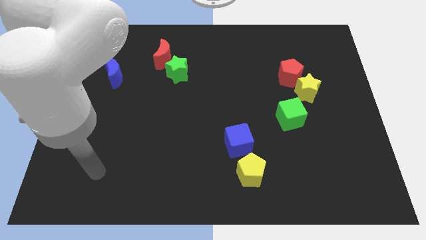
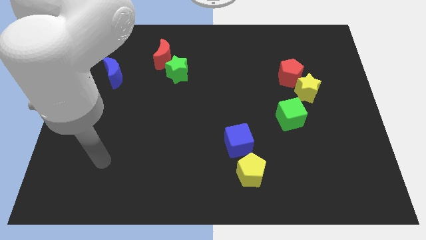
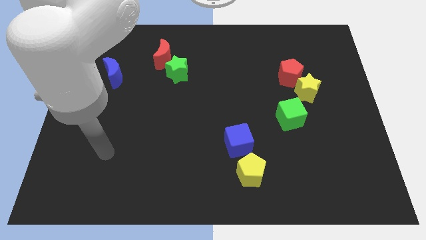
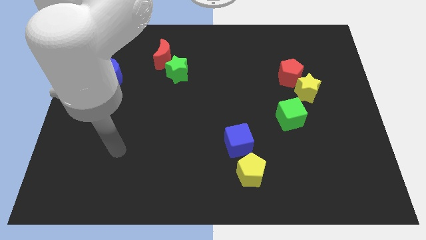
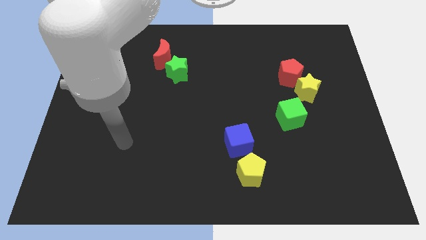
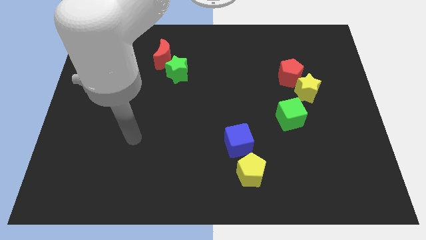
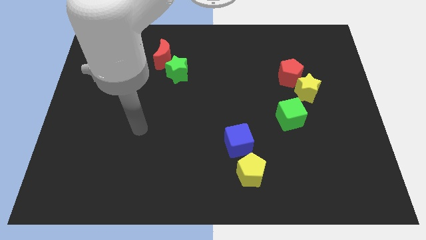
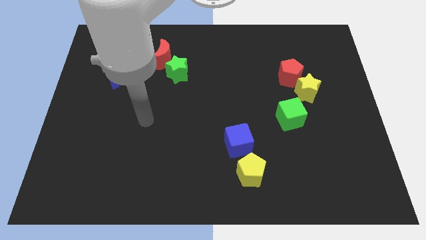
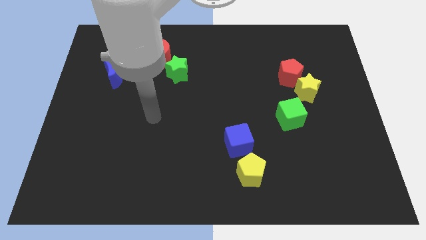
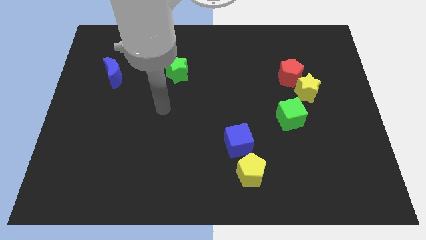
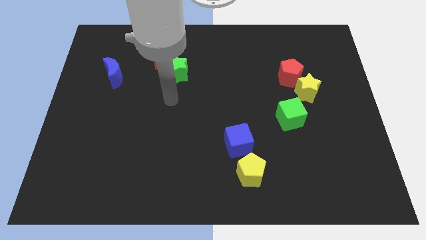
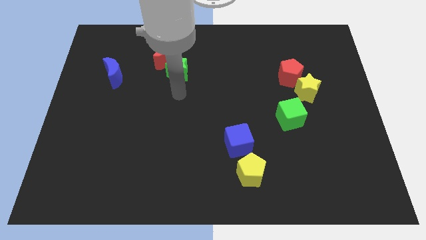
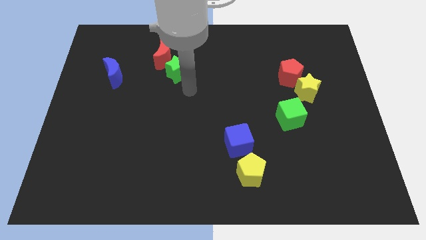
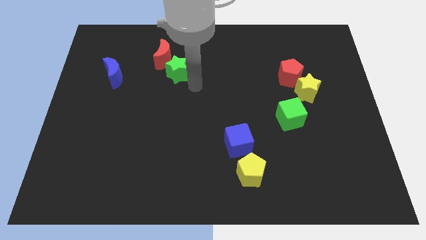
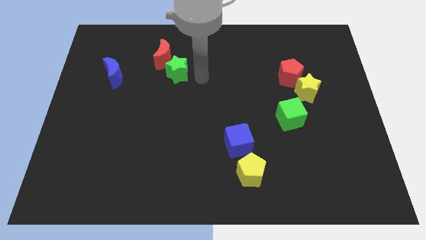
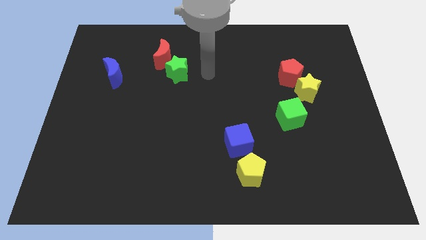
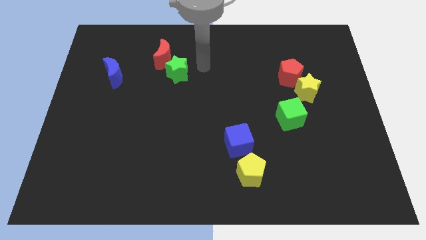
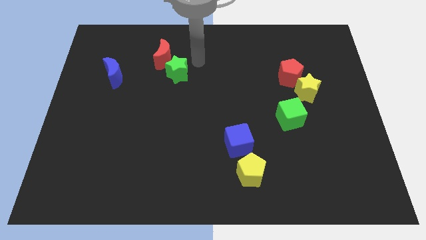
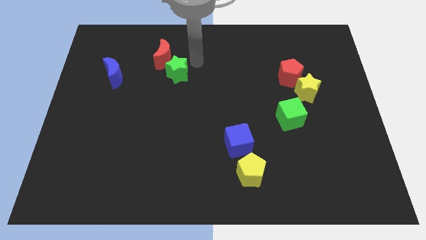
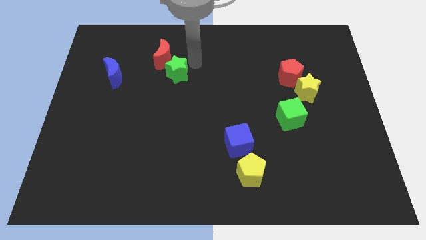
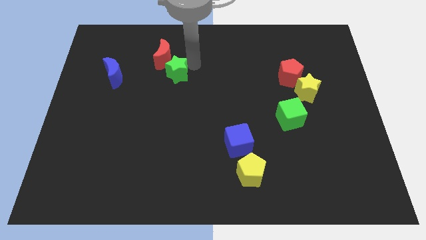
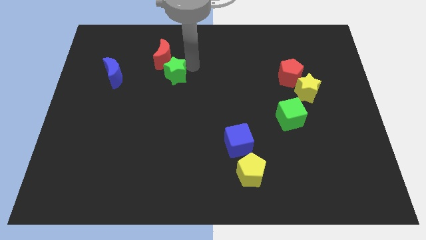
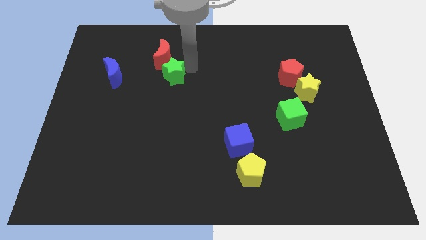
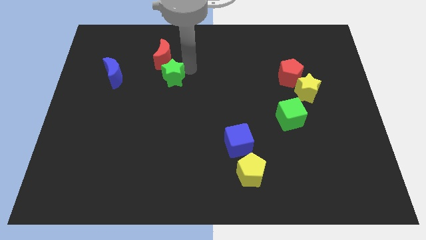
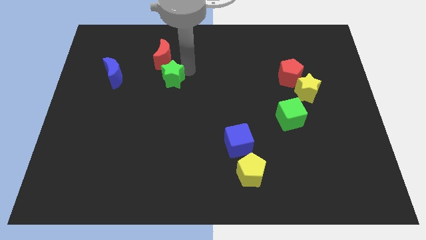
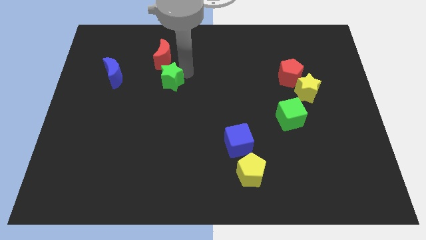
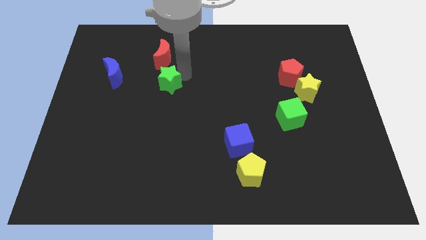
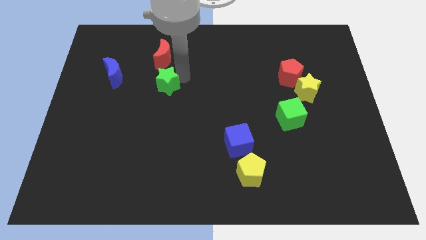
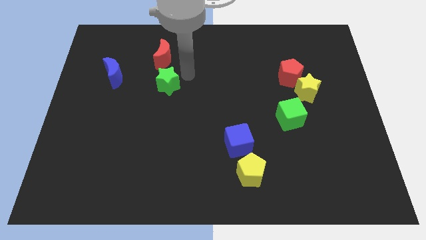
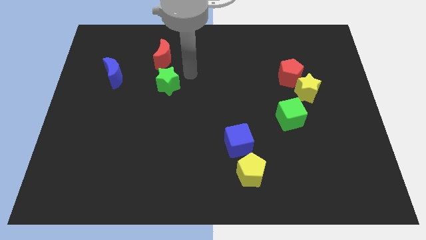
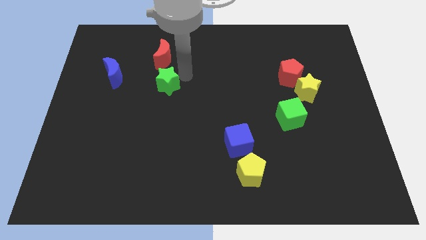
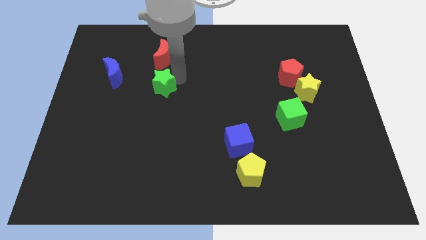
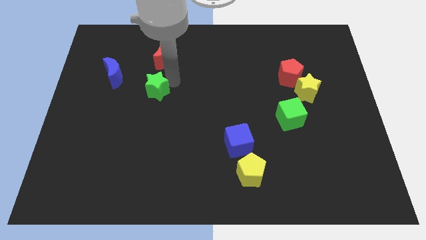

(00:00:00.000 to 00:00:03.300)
slide the green star diagonally downwards and left a little bit

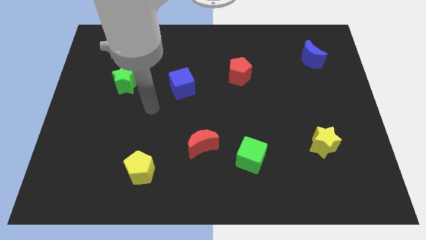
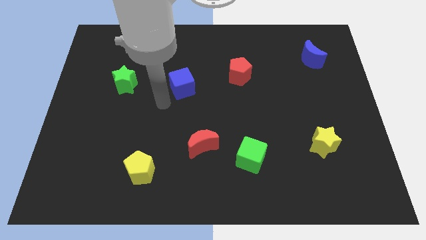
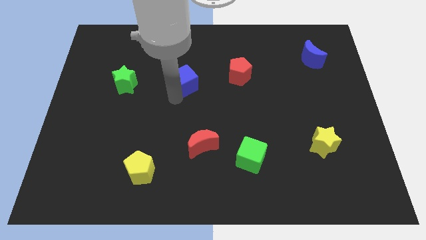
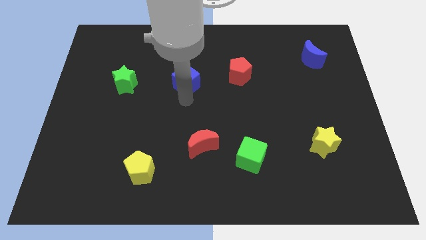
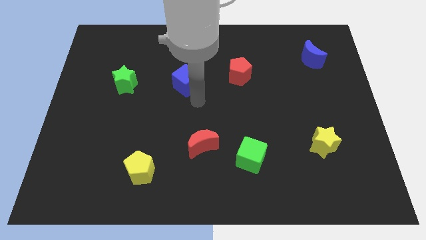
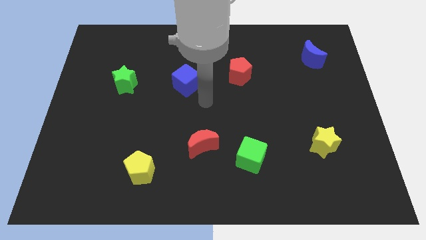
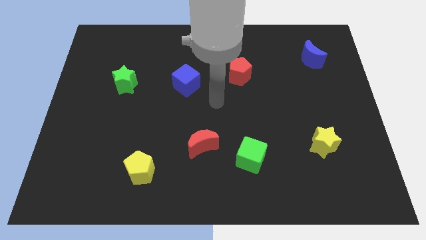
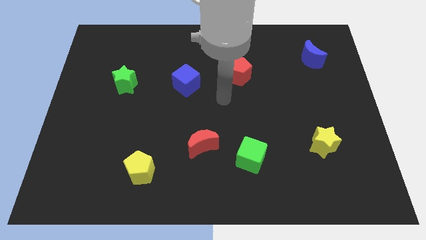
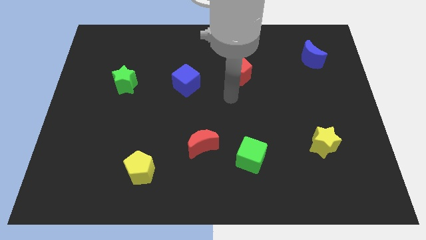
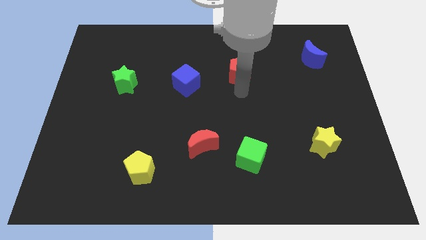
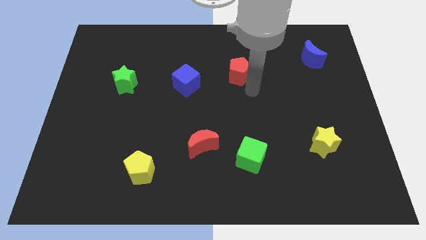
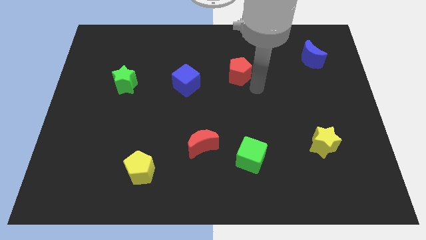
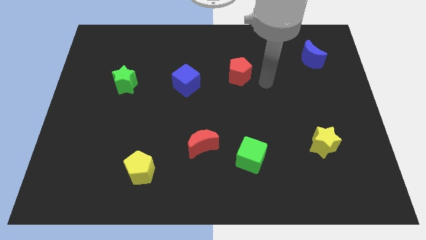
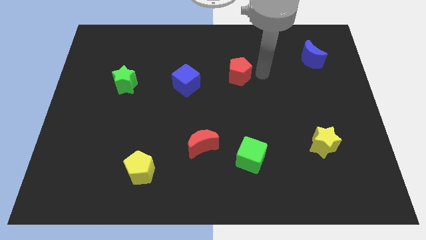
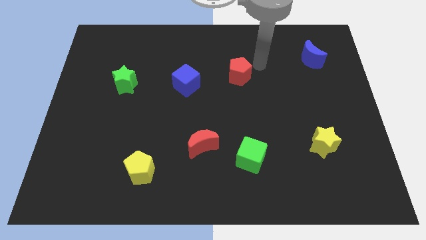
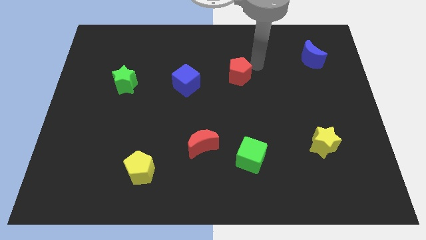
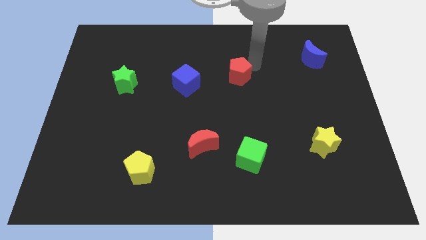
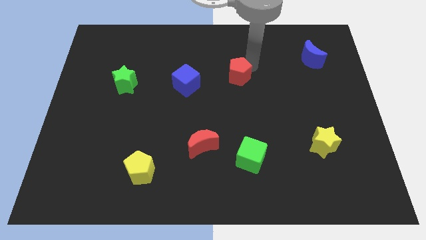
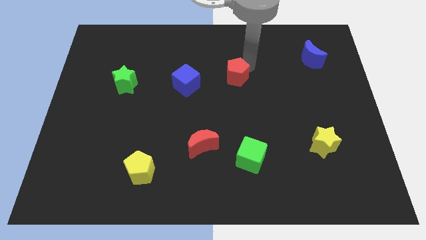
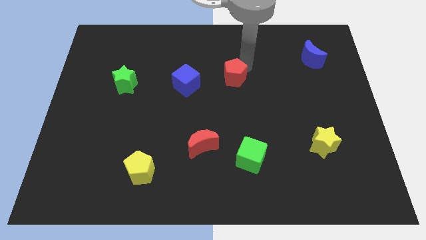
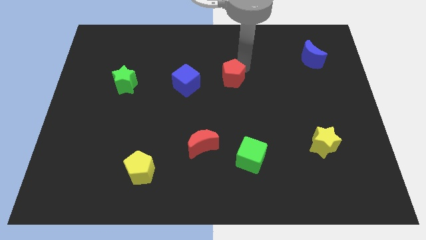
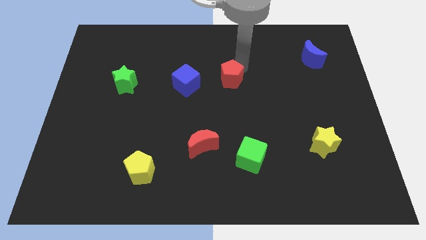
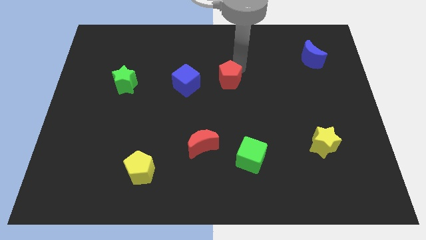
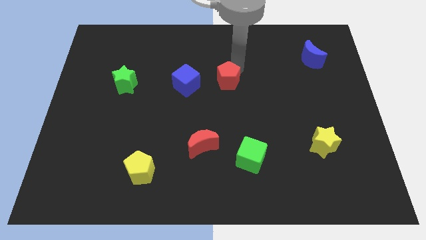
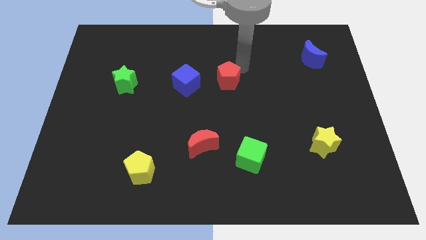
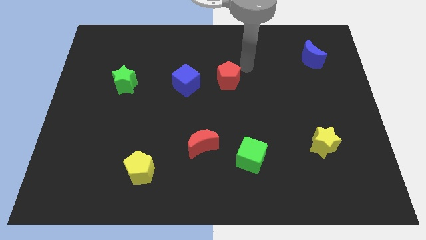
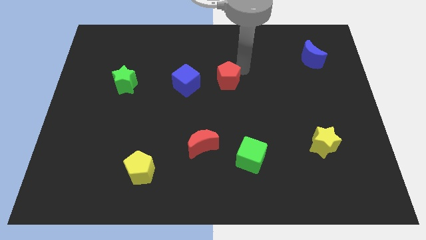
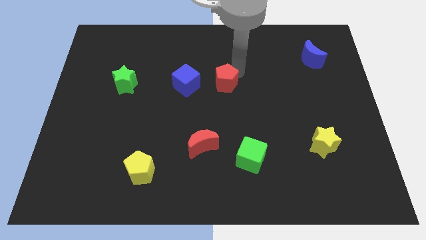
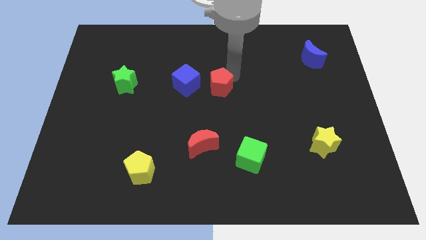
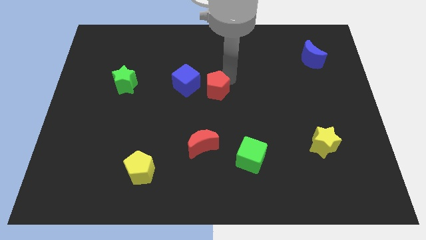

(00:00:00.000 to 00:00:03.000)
slide the red pentagon diagonally downwards and to the left somewhat

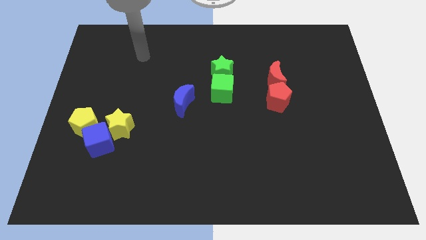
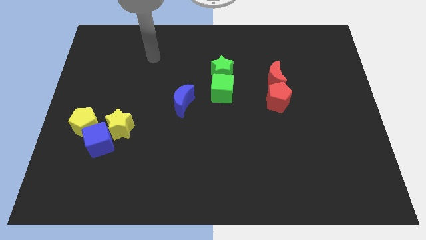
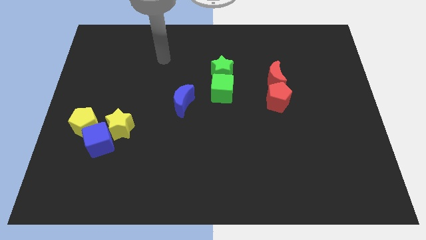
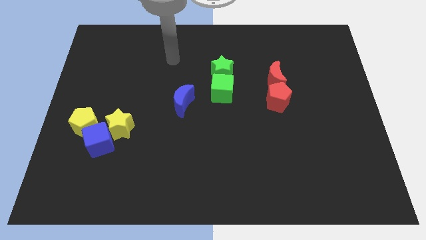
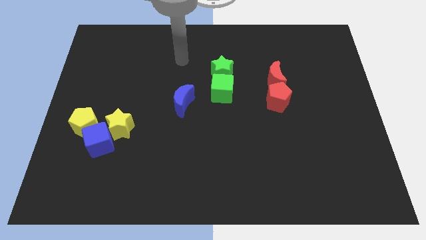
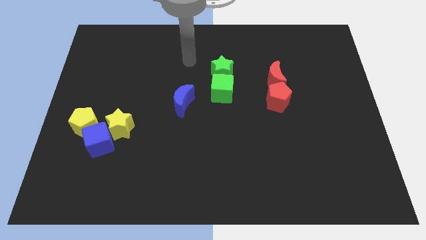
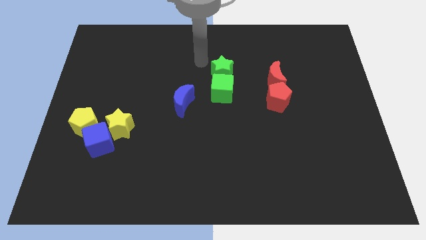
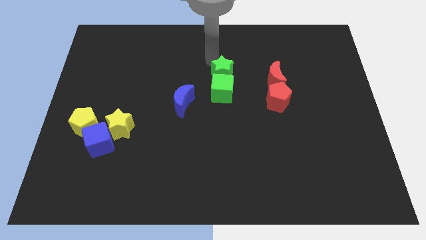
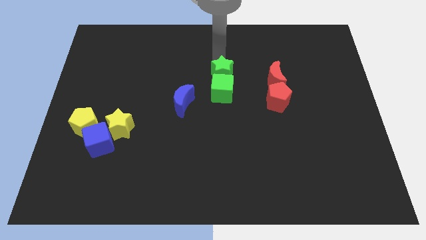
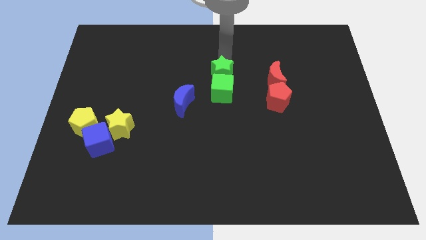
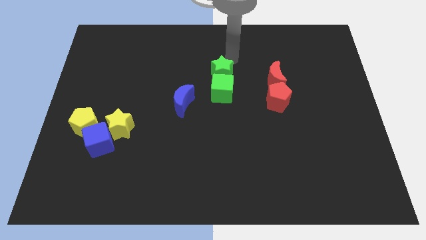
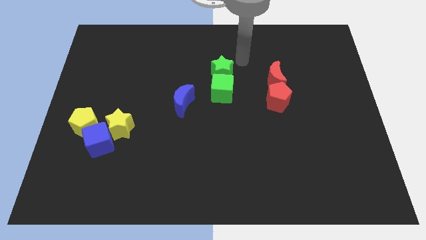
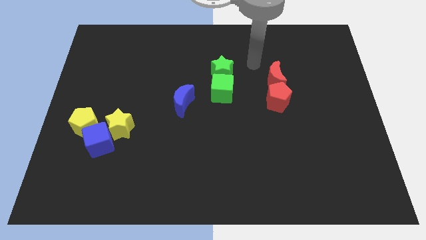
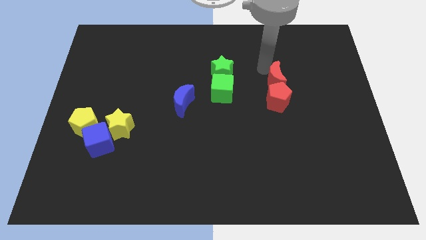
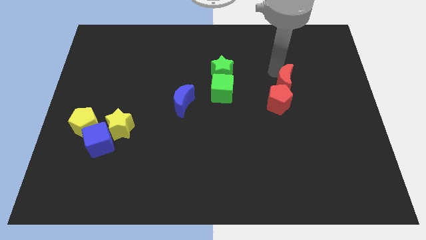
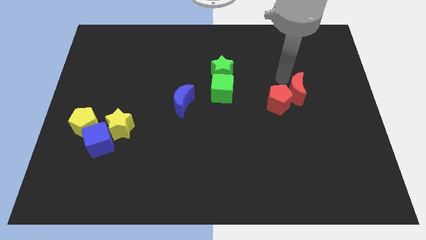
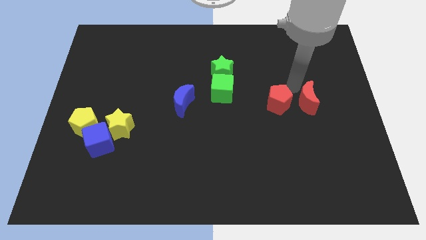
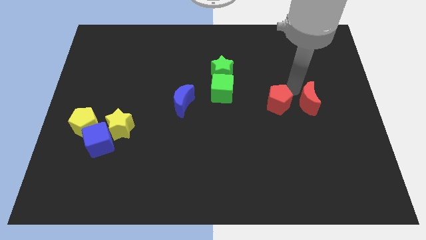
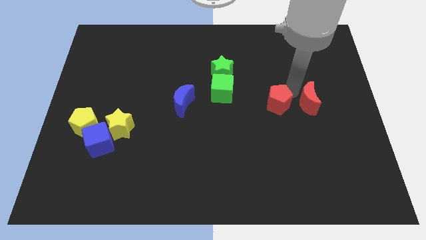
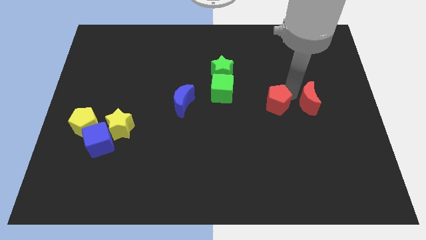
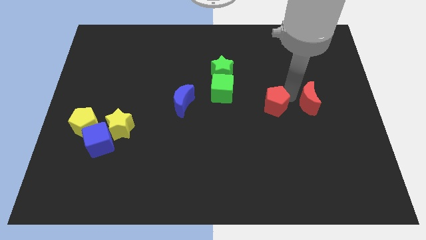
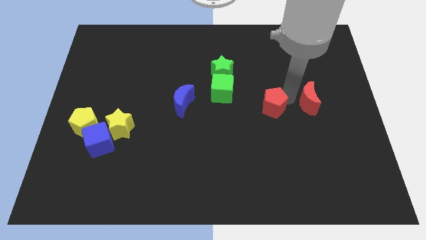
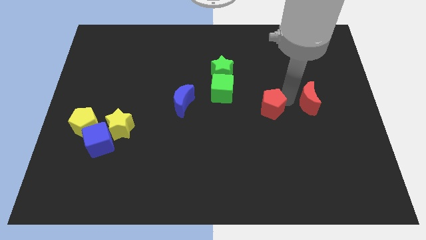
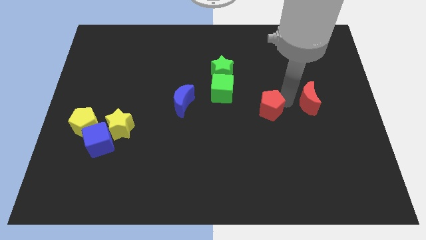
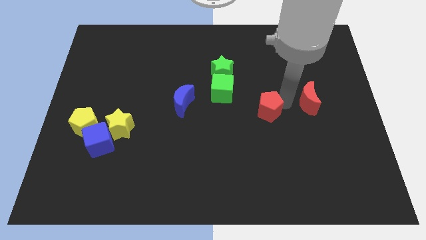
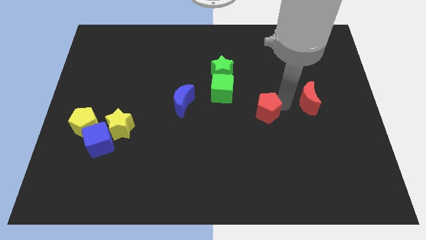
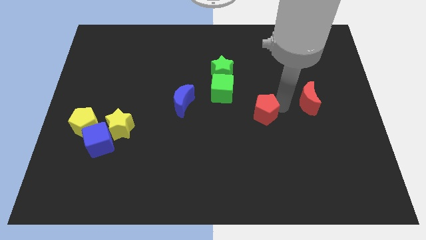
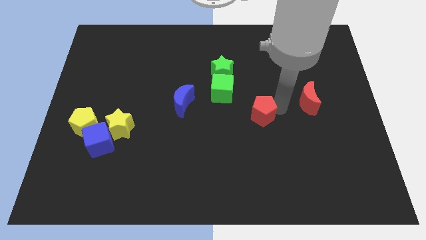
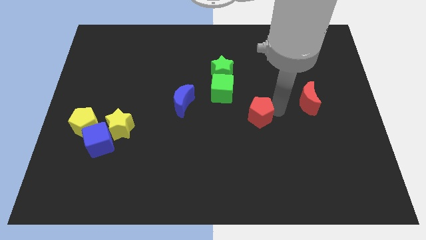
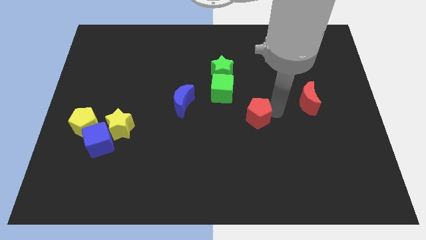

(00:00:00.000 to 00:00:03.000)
slightly slide the red pentagon down and left diagonally
